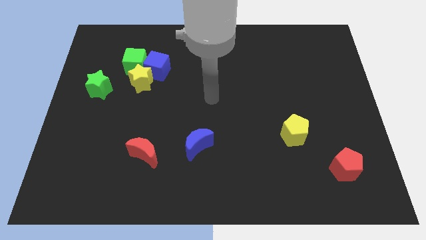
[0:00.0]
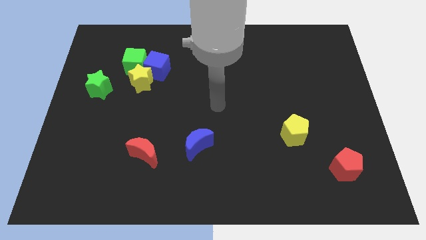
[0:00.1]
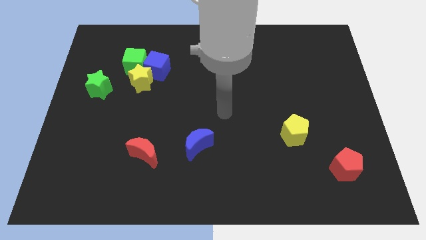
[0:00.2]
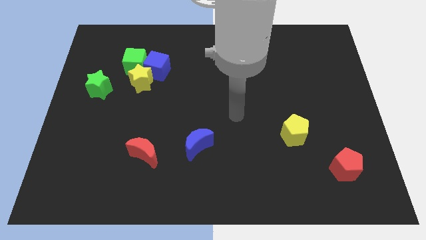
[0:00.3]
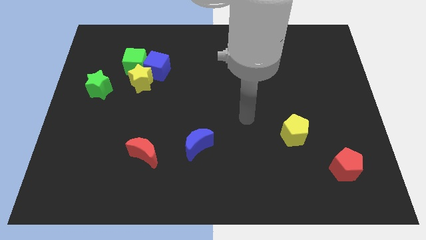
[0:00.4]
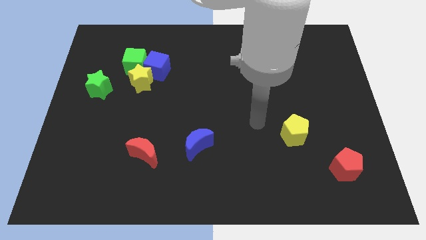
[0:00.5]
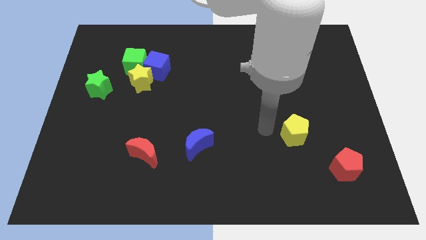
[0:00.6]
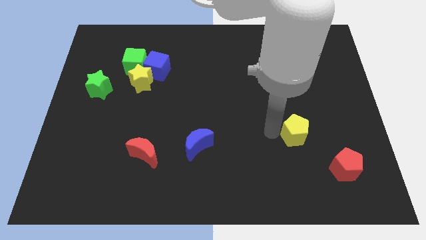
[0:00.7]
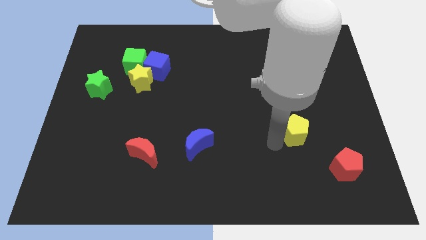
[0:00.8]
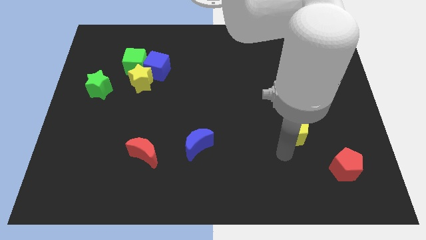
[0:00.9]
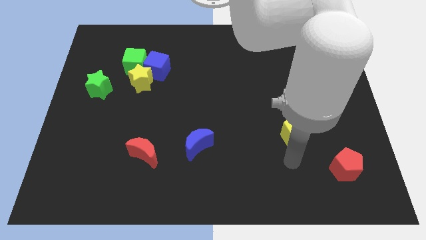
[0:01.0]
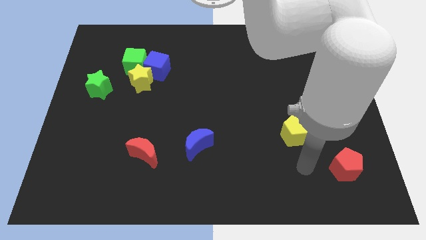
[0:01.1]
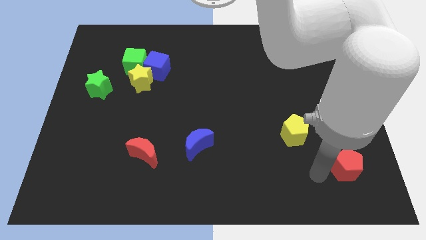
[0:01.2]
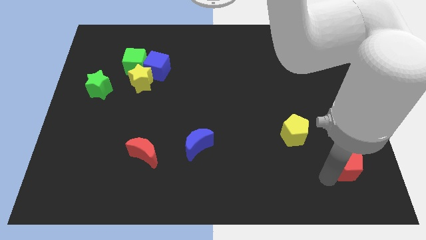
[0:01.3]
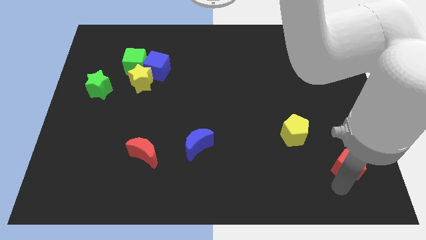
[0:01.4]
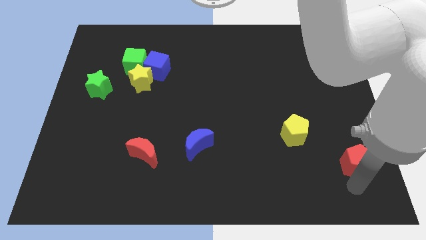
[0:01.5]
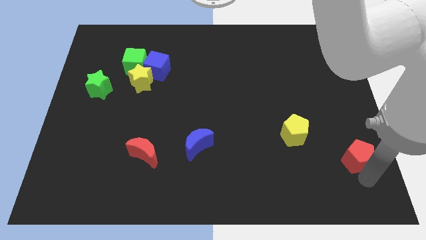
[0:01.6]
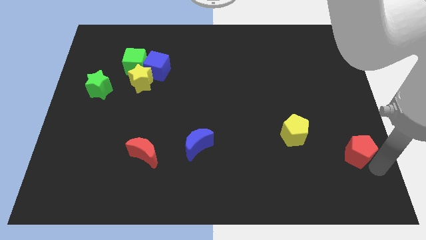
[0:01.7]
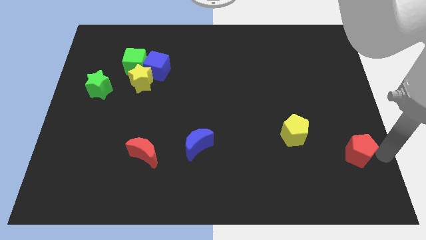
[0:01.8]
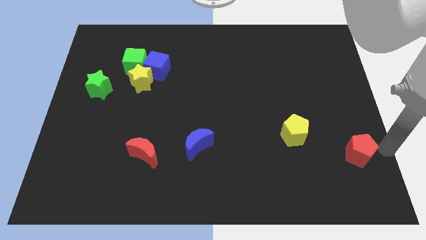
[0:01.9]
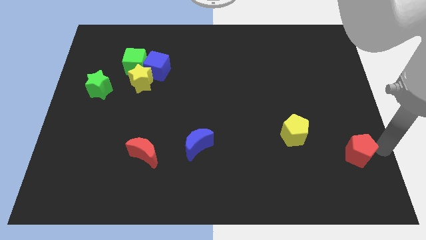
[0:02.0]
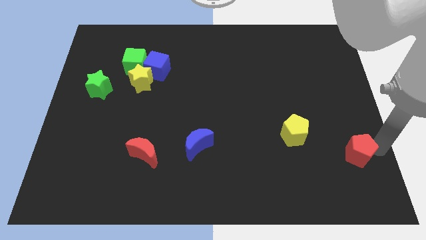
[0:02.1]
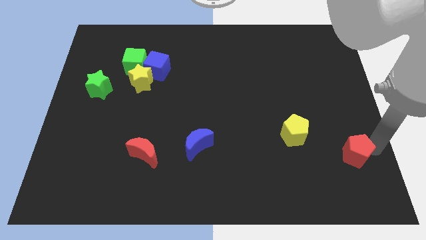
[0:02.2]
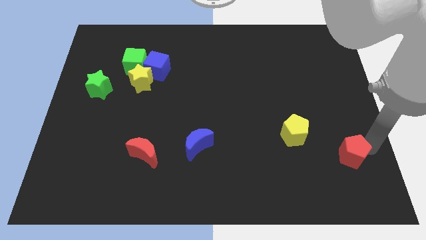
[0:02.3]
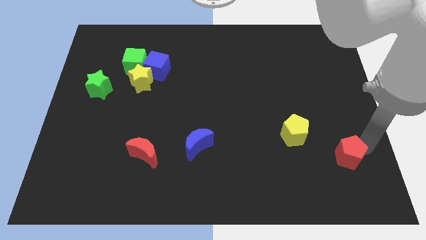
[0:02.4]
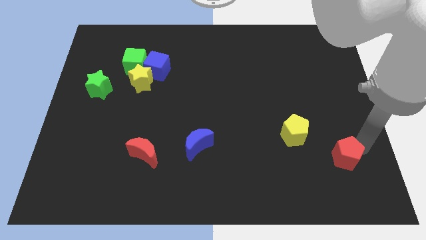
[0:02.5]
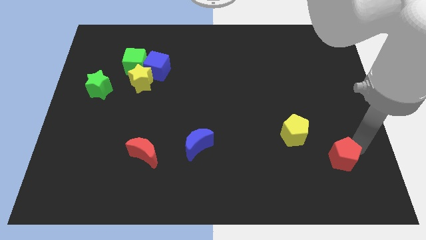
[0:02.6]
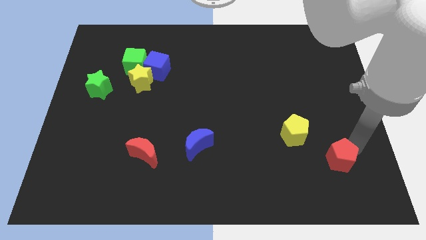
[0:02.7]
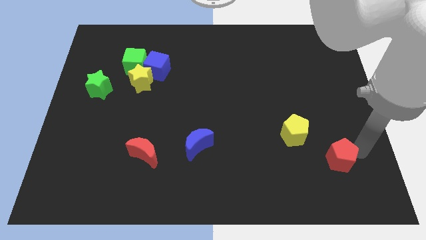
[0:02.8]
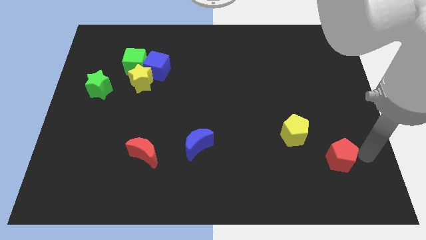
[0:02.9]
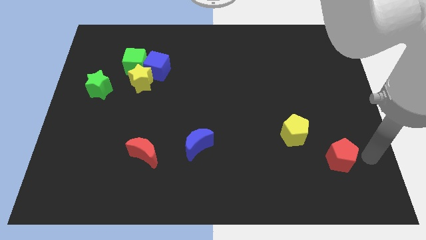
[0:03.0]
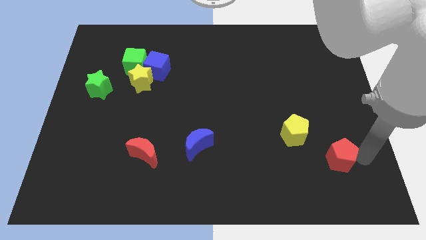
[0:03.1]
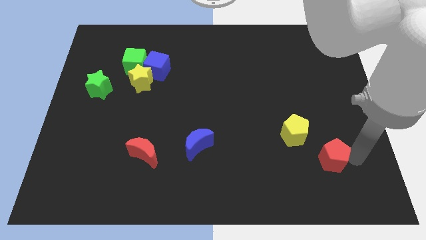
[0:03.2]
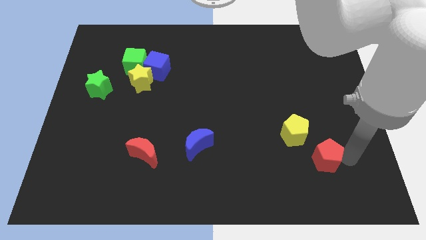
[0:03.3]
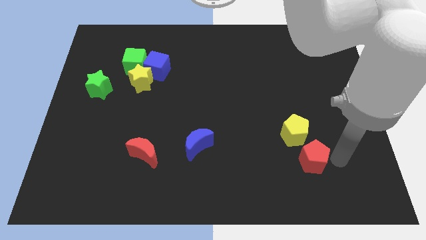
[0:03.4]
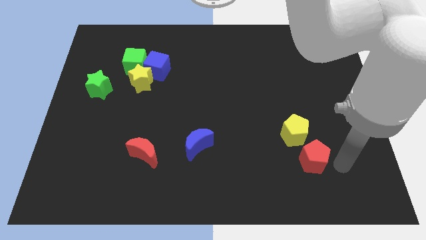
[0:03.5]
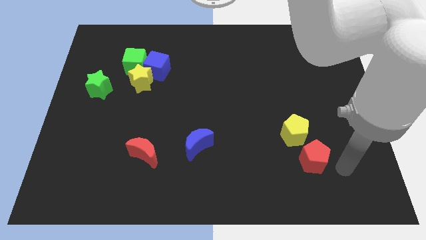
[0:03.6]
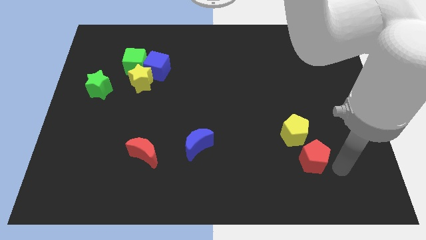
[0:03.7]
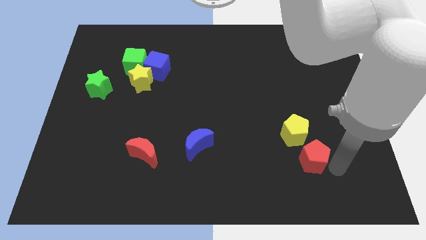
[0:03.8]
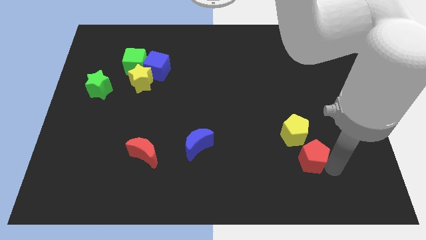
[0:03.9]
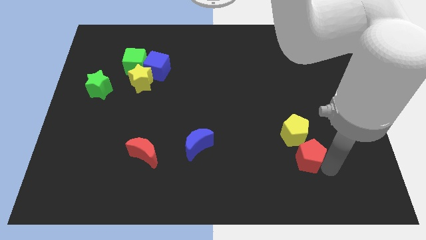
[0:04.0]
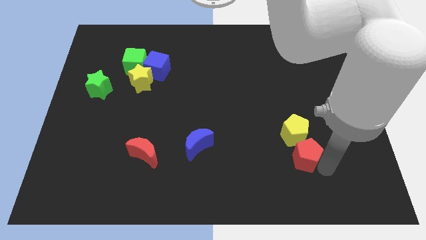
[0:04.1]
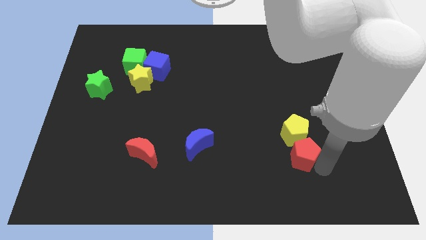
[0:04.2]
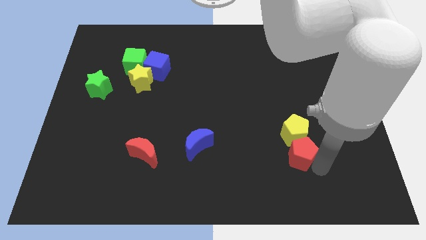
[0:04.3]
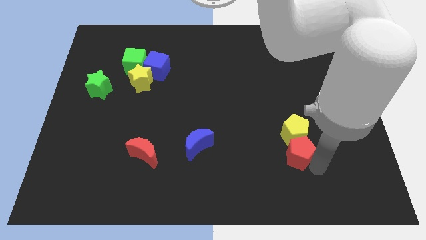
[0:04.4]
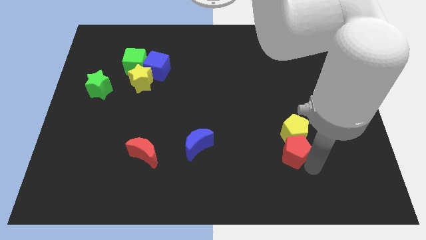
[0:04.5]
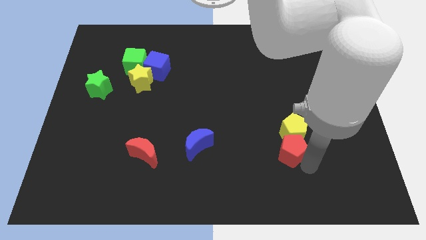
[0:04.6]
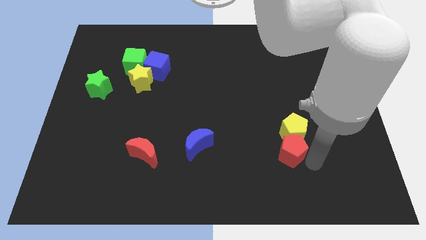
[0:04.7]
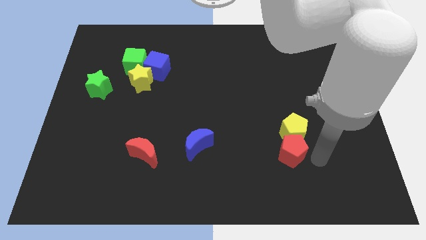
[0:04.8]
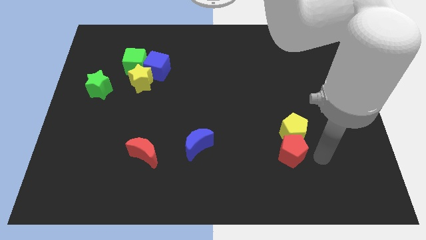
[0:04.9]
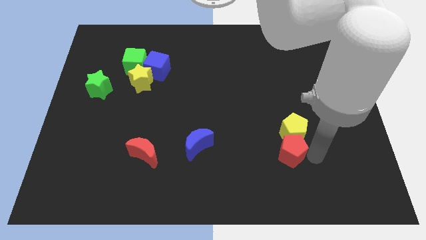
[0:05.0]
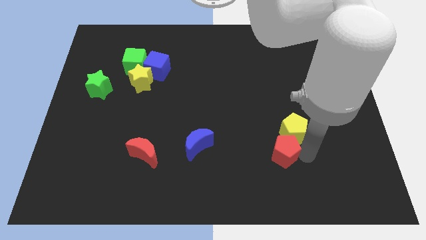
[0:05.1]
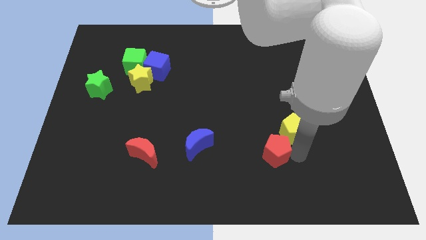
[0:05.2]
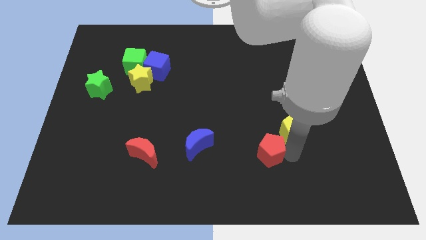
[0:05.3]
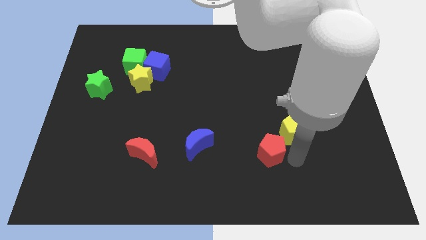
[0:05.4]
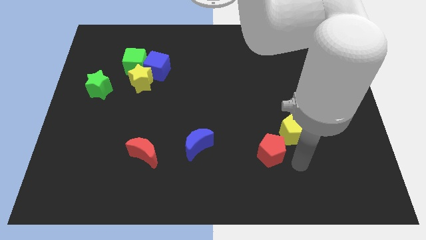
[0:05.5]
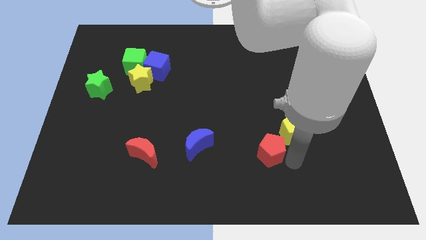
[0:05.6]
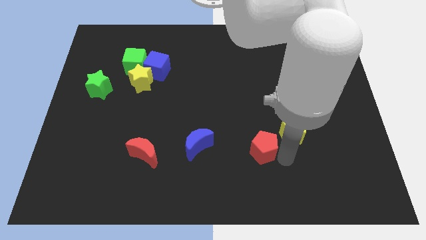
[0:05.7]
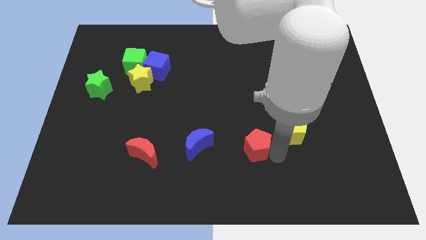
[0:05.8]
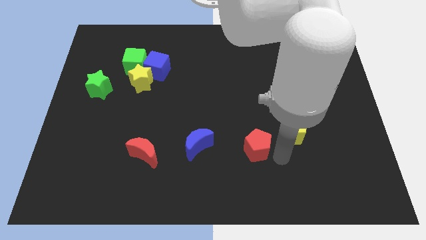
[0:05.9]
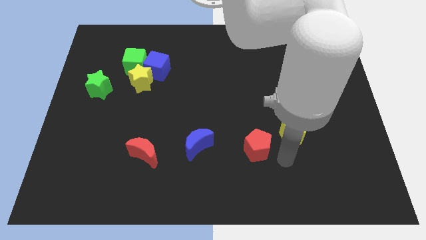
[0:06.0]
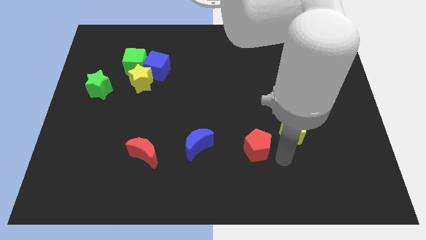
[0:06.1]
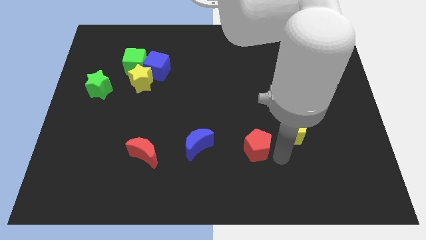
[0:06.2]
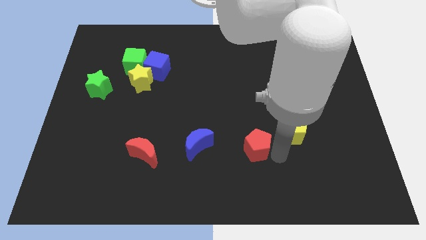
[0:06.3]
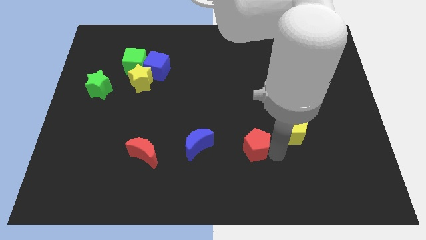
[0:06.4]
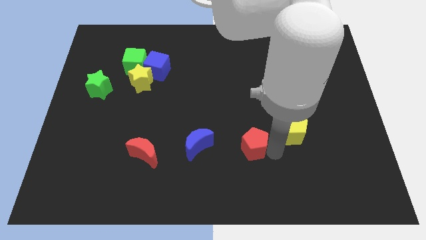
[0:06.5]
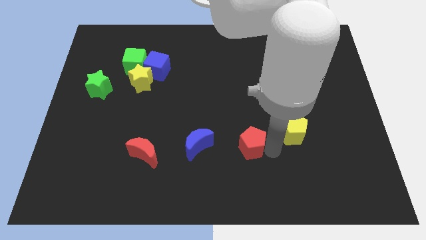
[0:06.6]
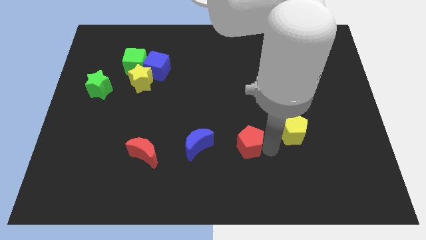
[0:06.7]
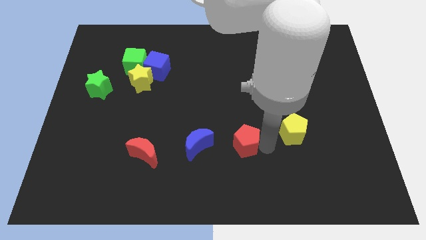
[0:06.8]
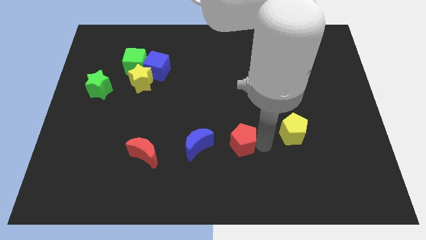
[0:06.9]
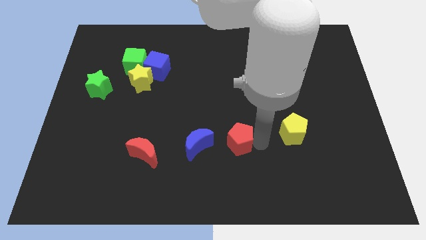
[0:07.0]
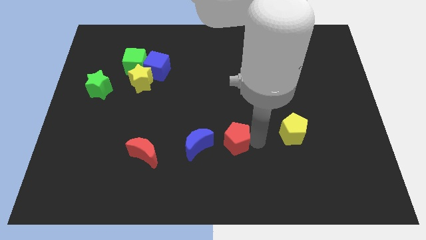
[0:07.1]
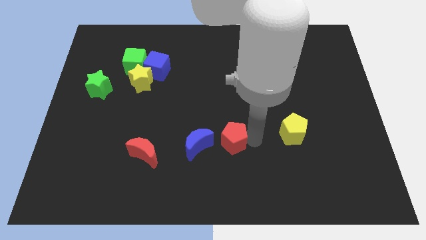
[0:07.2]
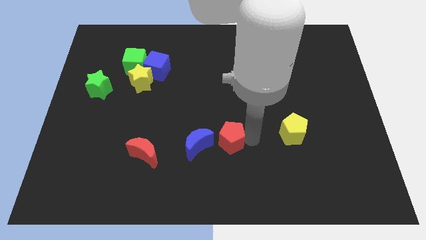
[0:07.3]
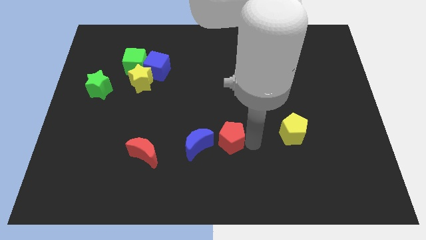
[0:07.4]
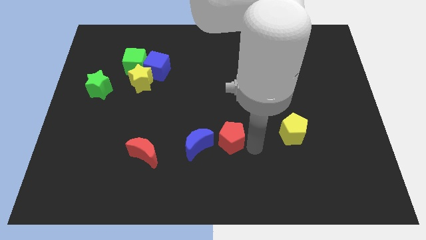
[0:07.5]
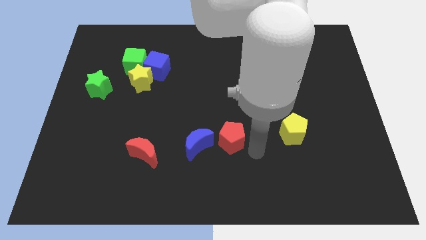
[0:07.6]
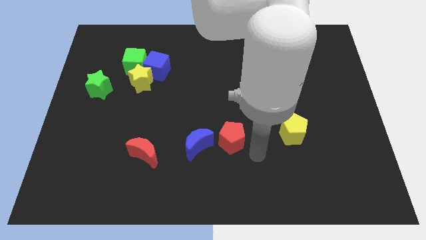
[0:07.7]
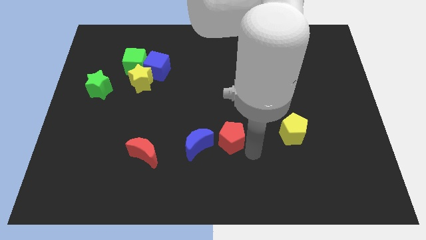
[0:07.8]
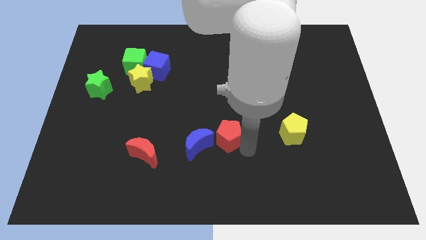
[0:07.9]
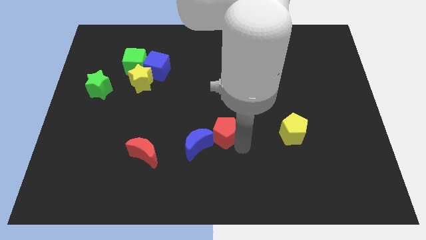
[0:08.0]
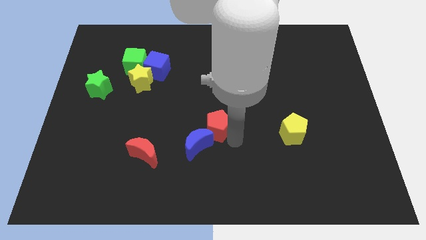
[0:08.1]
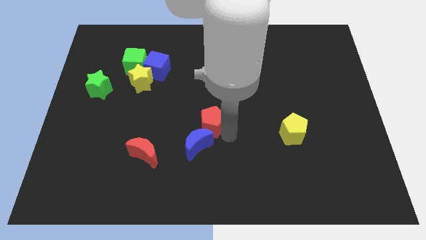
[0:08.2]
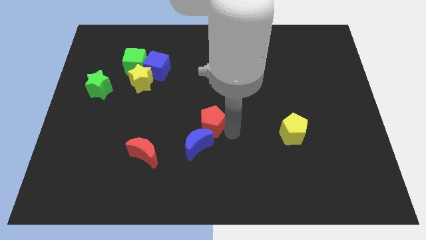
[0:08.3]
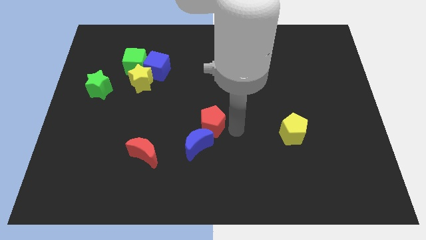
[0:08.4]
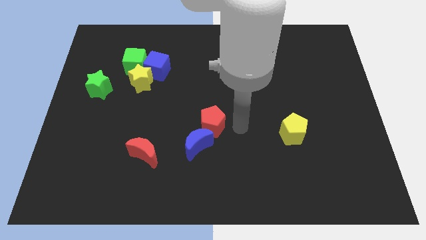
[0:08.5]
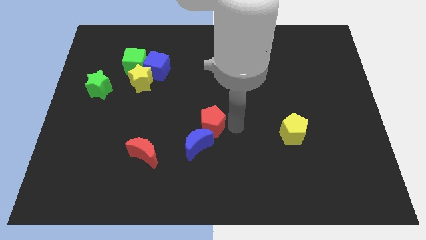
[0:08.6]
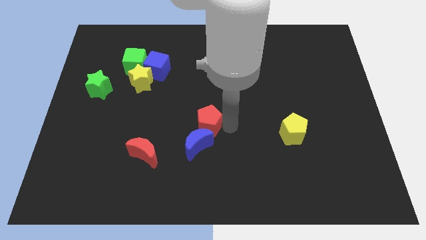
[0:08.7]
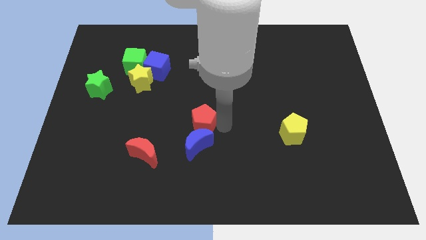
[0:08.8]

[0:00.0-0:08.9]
push the red pentagon diagonally up and to the left of the blue moon
